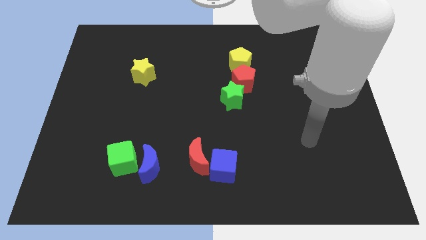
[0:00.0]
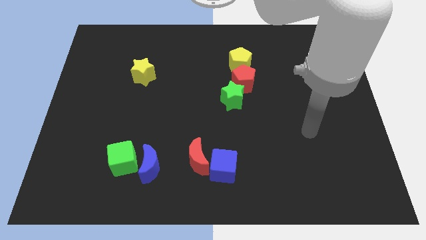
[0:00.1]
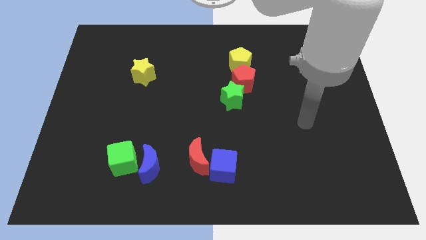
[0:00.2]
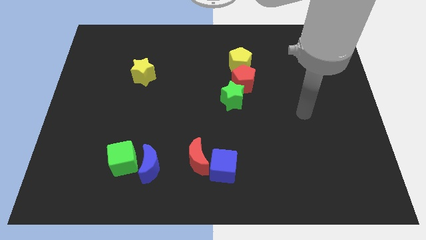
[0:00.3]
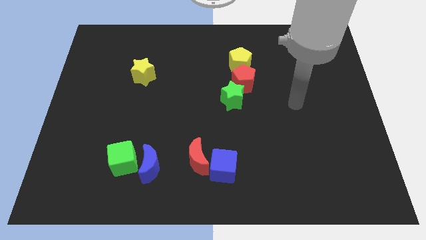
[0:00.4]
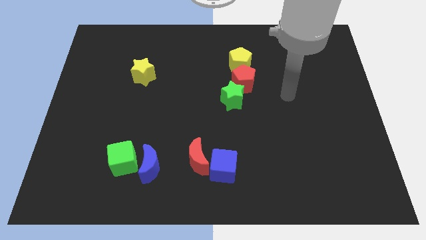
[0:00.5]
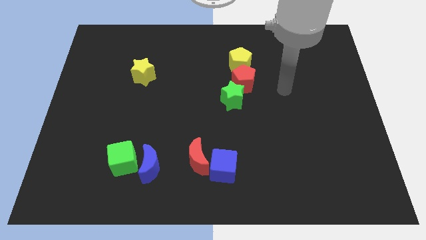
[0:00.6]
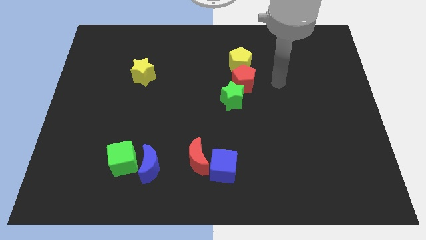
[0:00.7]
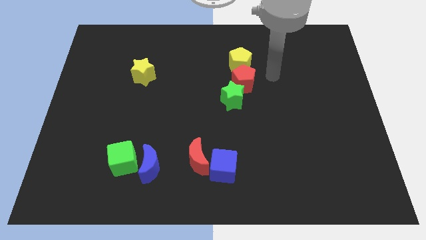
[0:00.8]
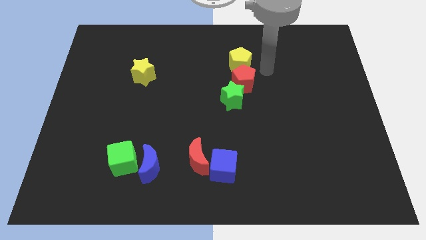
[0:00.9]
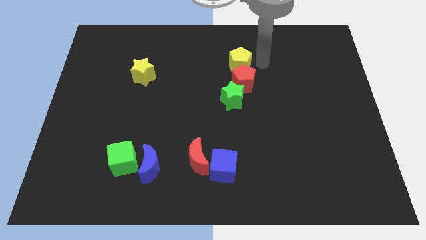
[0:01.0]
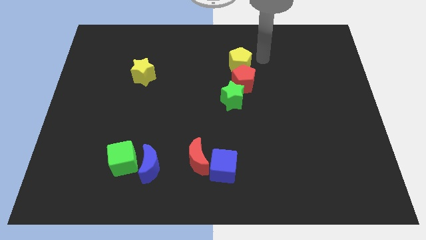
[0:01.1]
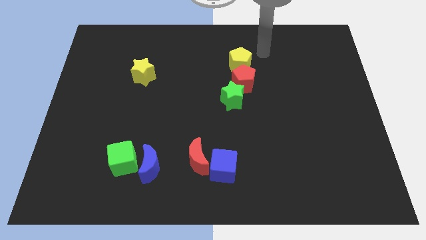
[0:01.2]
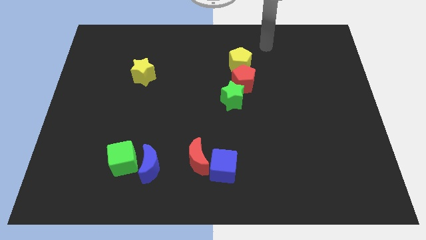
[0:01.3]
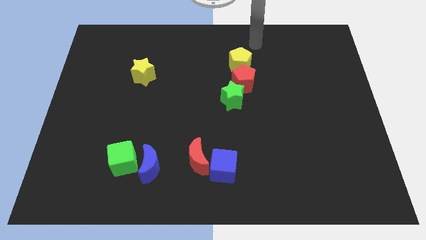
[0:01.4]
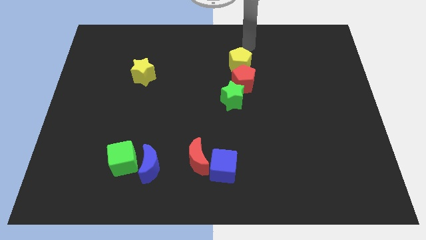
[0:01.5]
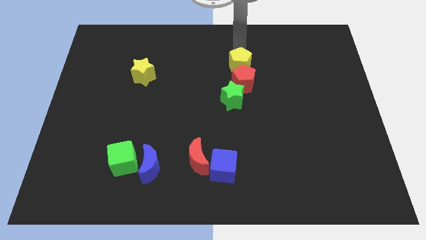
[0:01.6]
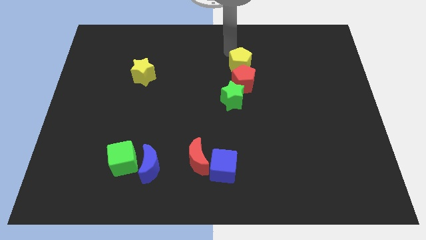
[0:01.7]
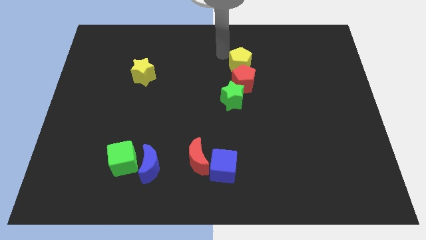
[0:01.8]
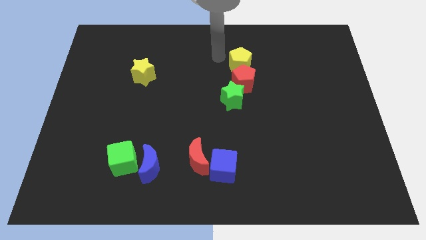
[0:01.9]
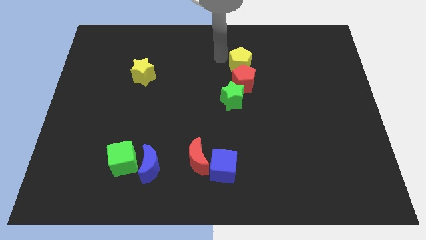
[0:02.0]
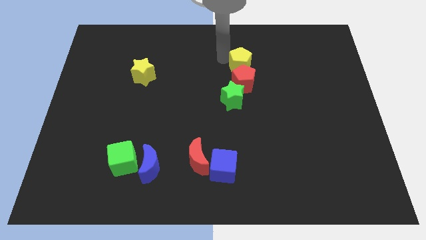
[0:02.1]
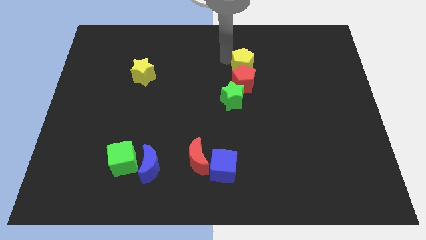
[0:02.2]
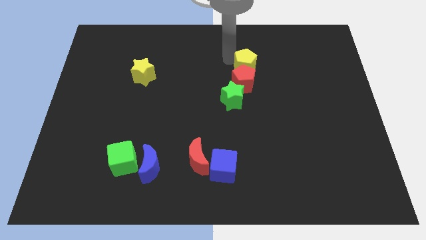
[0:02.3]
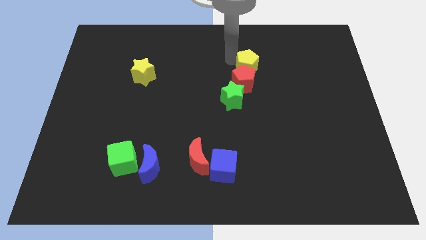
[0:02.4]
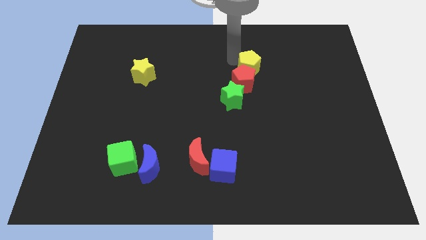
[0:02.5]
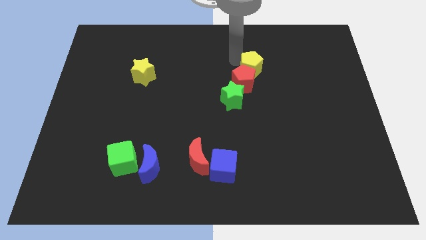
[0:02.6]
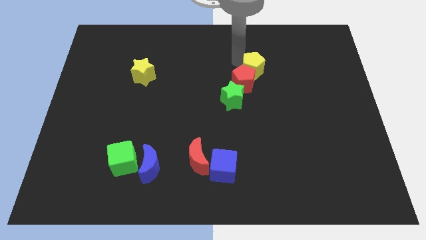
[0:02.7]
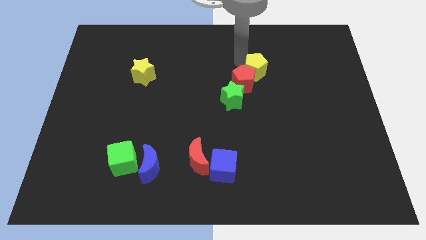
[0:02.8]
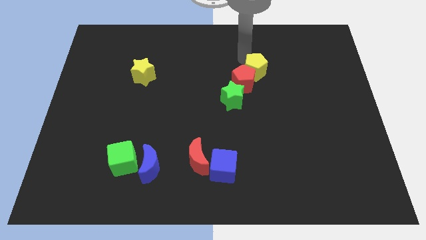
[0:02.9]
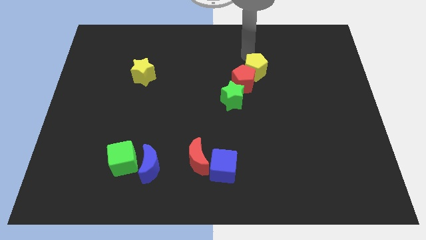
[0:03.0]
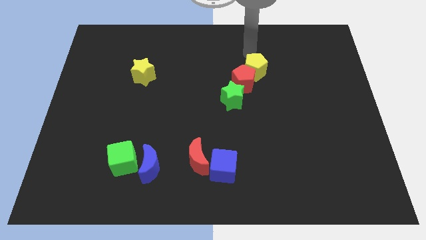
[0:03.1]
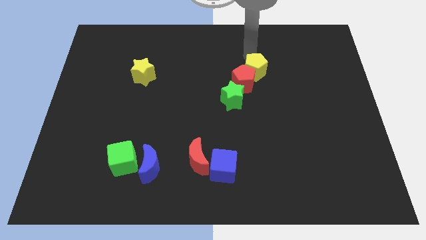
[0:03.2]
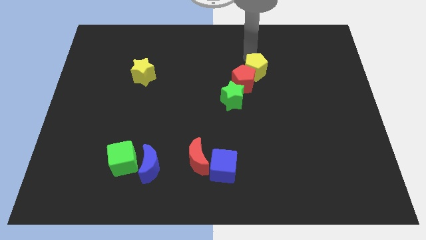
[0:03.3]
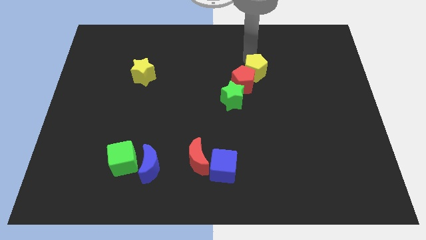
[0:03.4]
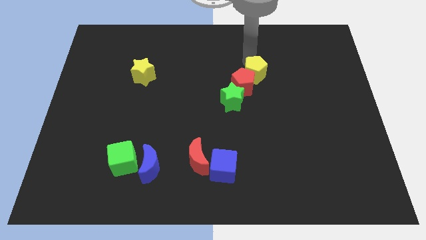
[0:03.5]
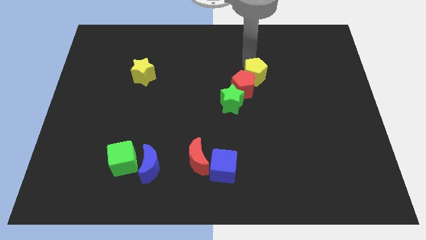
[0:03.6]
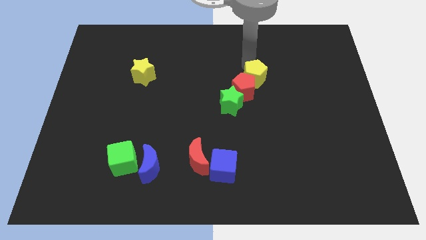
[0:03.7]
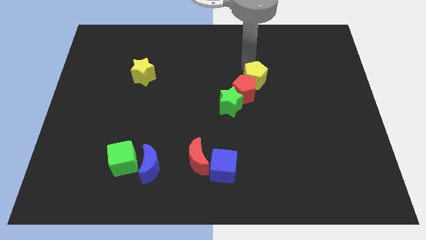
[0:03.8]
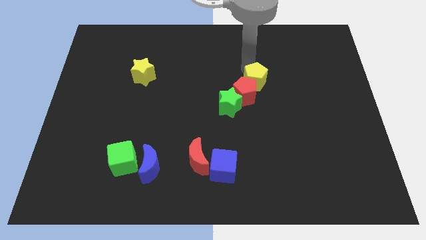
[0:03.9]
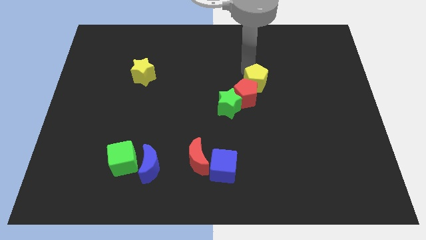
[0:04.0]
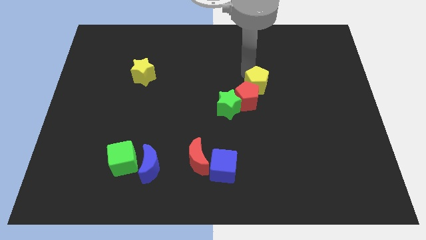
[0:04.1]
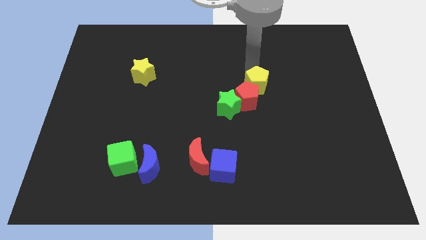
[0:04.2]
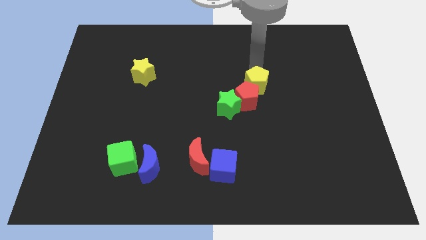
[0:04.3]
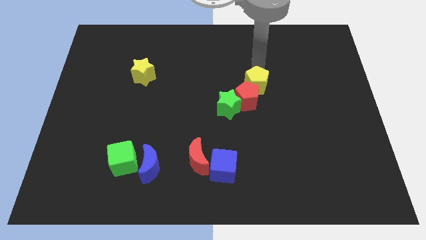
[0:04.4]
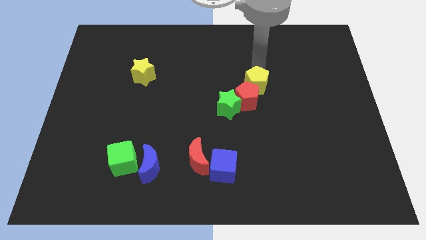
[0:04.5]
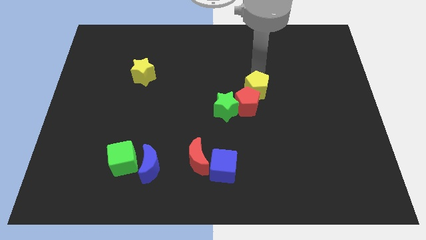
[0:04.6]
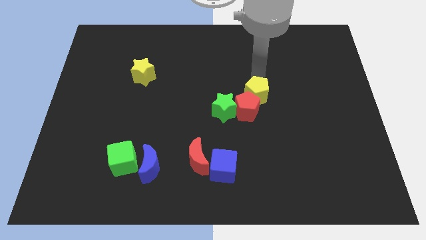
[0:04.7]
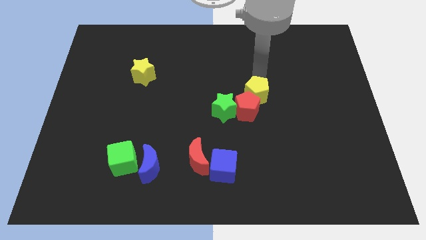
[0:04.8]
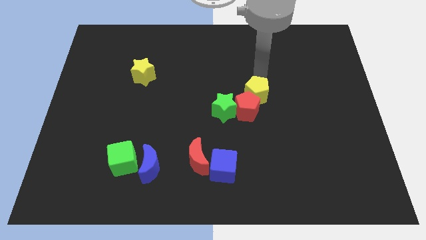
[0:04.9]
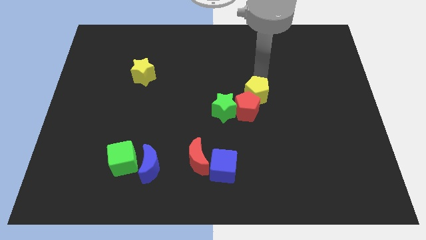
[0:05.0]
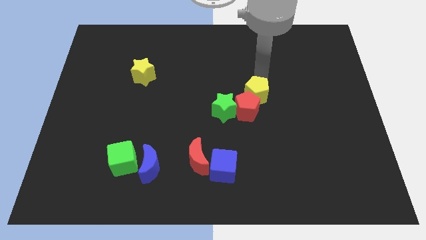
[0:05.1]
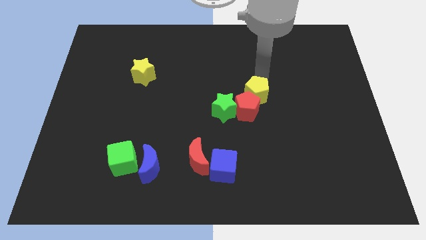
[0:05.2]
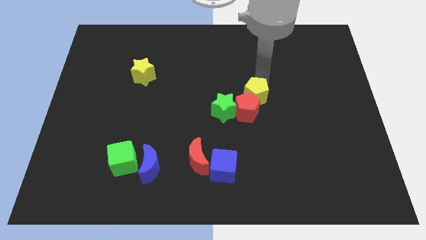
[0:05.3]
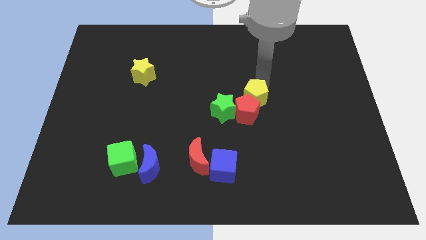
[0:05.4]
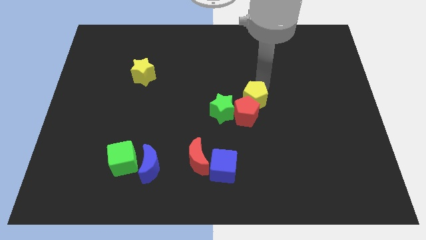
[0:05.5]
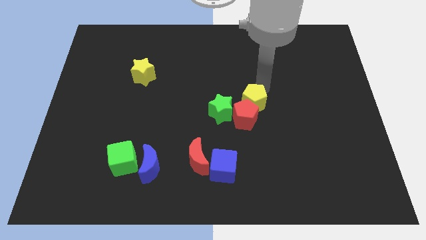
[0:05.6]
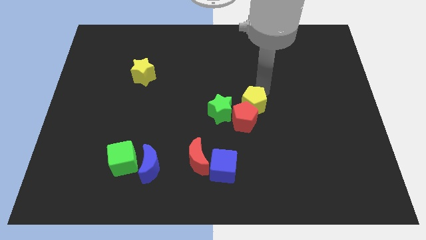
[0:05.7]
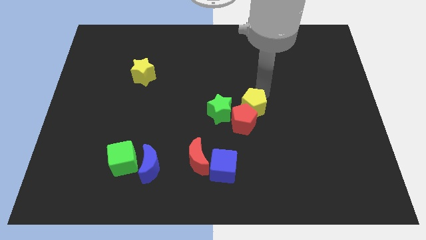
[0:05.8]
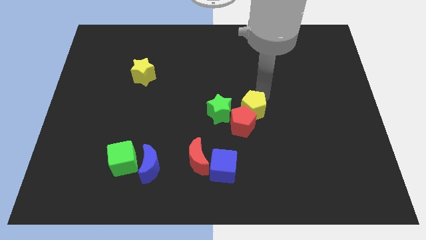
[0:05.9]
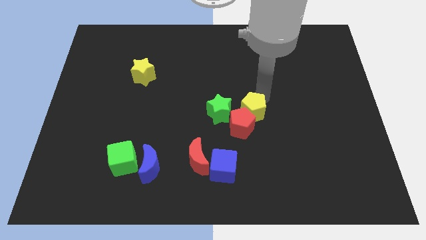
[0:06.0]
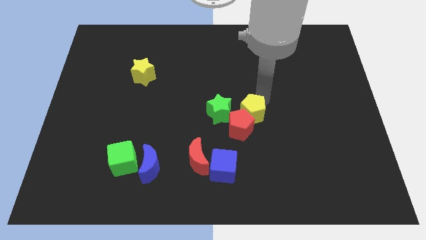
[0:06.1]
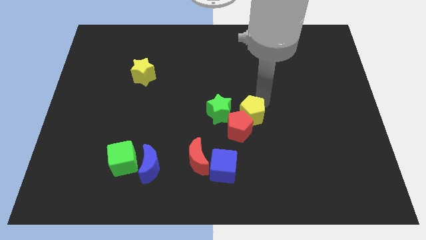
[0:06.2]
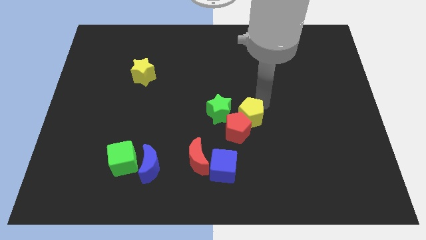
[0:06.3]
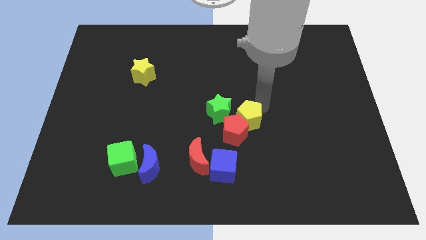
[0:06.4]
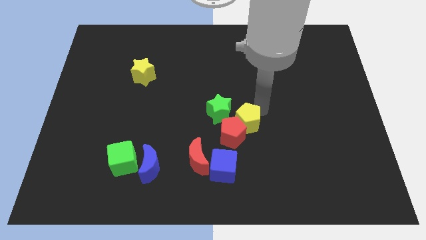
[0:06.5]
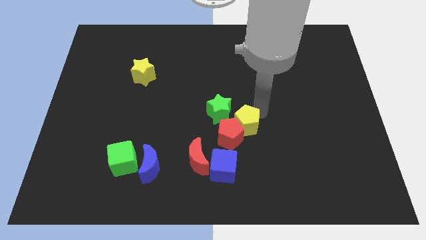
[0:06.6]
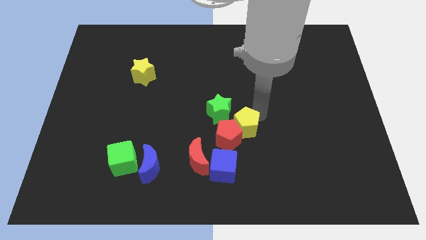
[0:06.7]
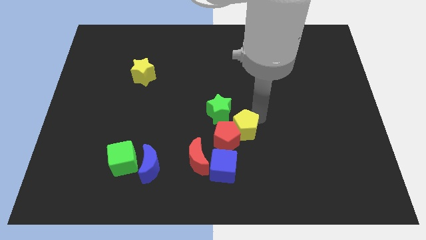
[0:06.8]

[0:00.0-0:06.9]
slide the yellow pentagon downwards

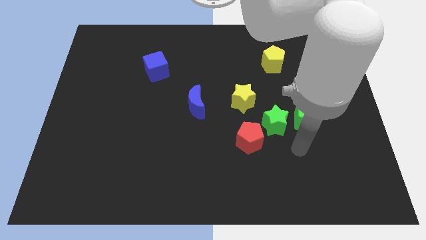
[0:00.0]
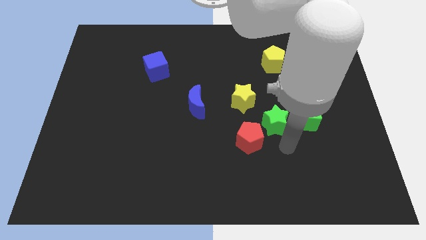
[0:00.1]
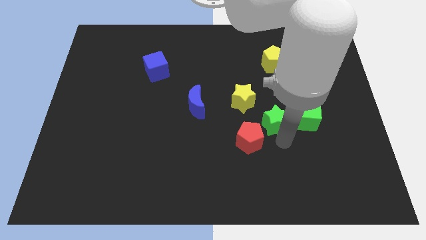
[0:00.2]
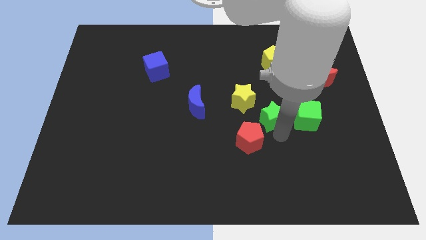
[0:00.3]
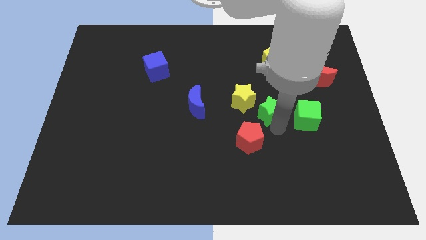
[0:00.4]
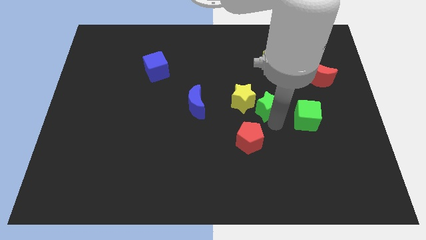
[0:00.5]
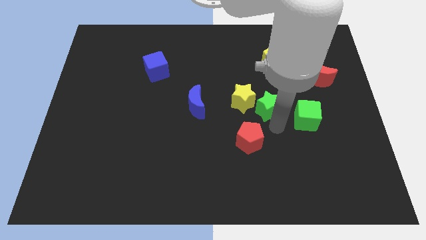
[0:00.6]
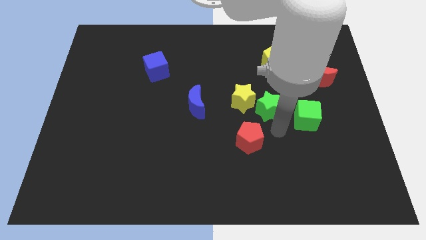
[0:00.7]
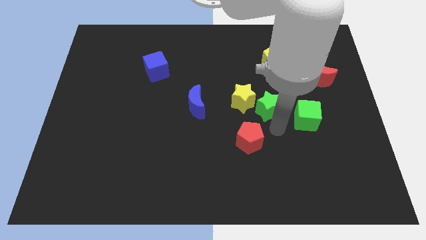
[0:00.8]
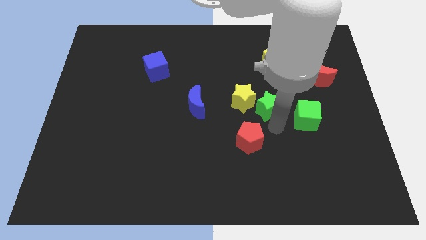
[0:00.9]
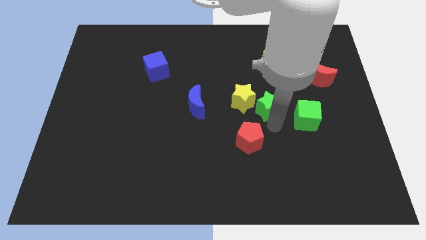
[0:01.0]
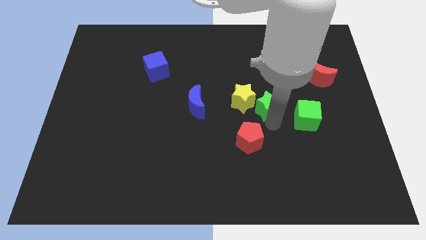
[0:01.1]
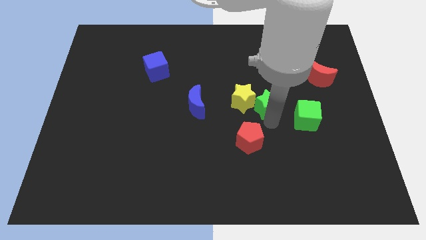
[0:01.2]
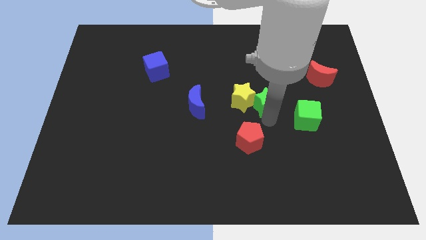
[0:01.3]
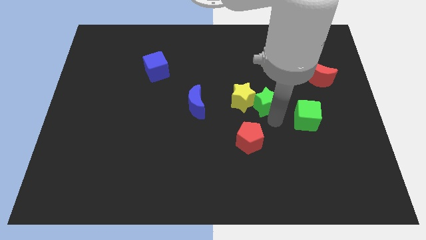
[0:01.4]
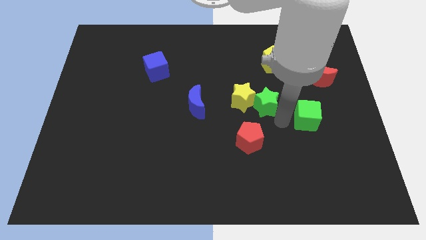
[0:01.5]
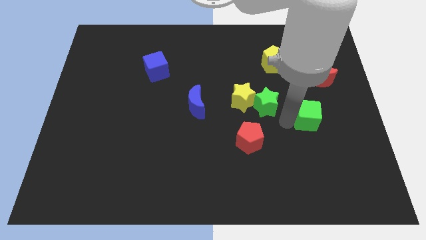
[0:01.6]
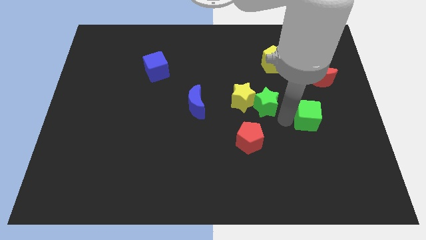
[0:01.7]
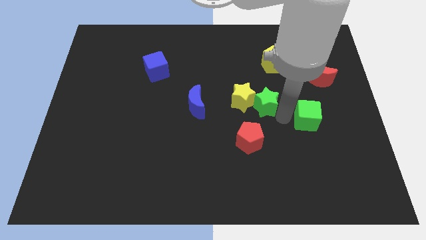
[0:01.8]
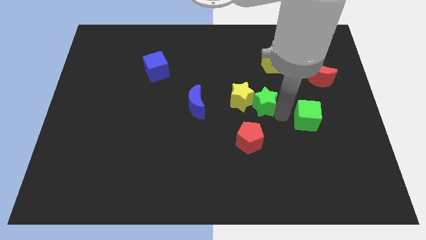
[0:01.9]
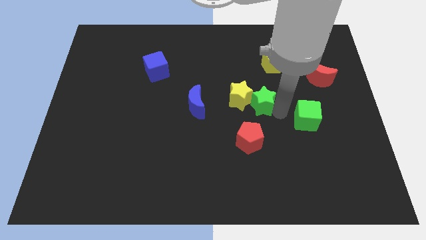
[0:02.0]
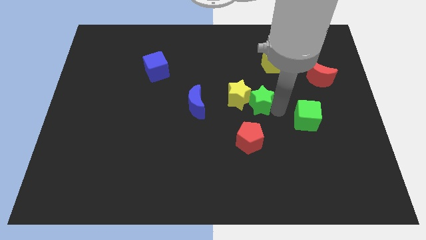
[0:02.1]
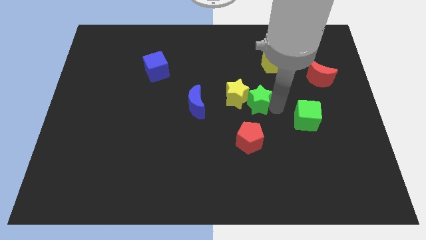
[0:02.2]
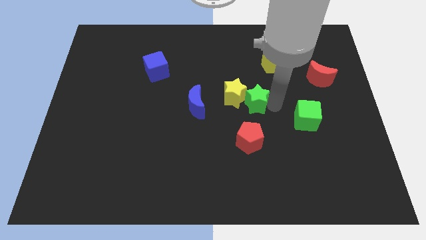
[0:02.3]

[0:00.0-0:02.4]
slide the green star upwards and left a bit
